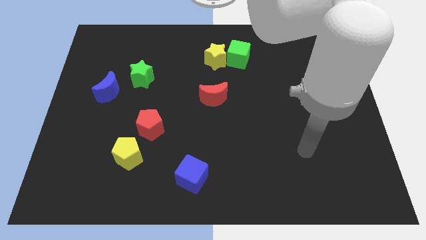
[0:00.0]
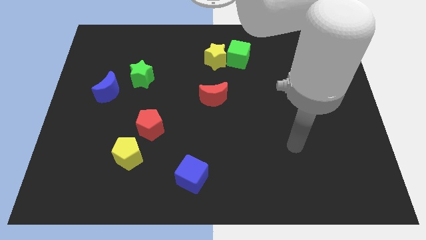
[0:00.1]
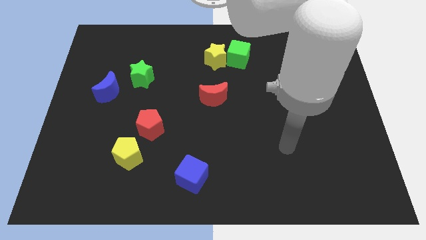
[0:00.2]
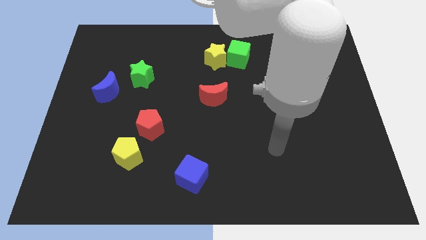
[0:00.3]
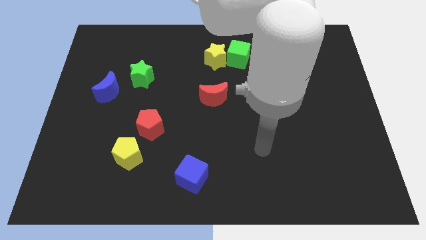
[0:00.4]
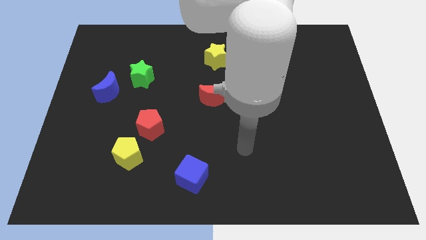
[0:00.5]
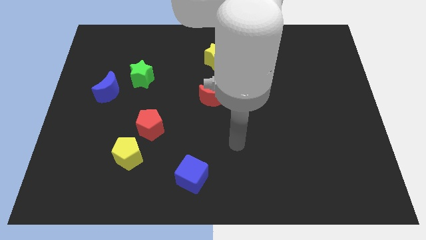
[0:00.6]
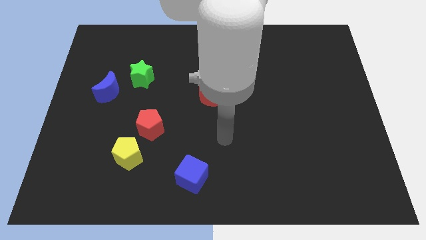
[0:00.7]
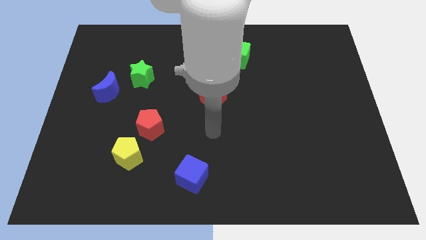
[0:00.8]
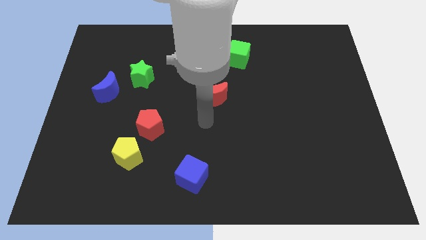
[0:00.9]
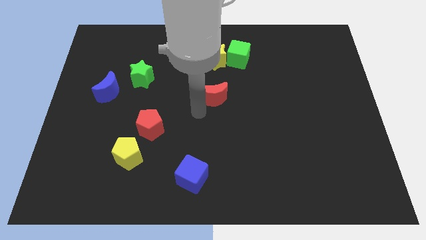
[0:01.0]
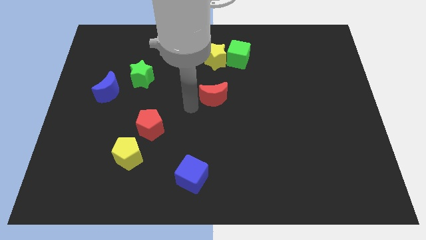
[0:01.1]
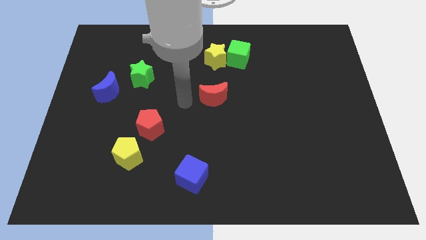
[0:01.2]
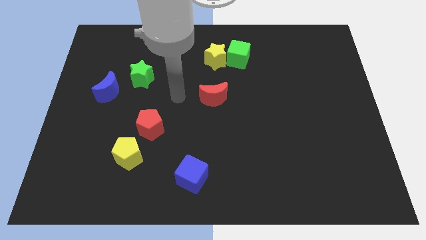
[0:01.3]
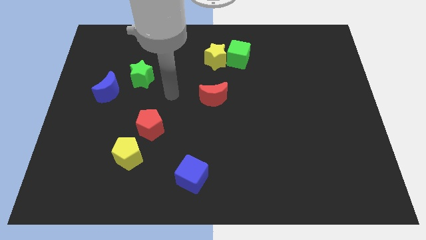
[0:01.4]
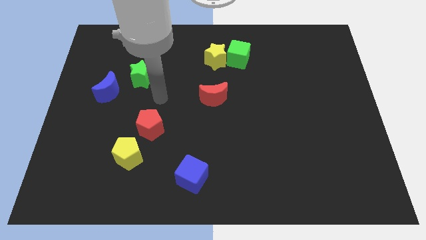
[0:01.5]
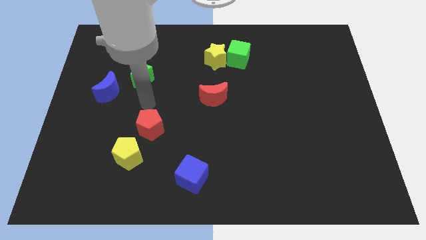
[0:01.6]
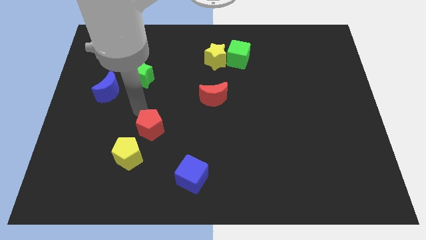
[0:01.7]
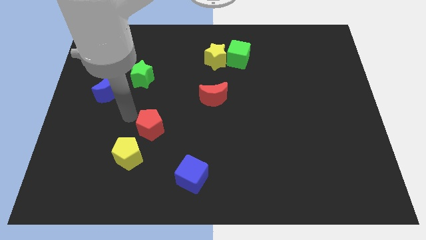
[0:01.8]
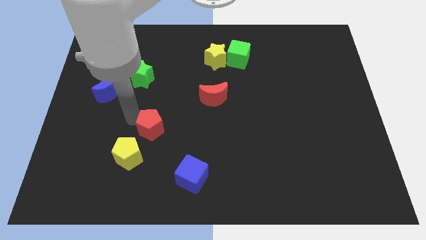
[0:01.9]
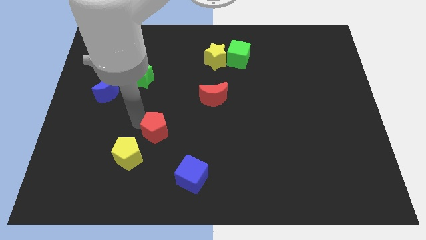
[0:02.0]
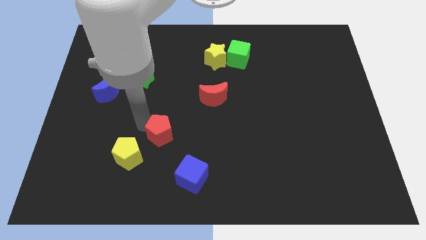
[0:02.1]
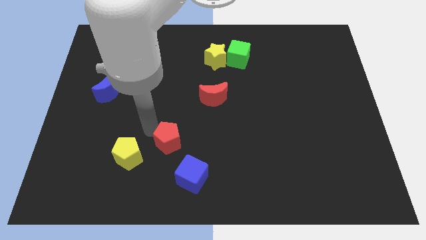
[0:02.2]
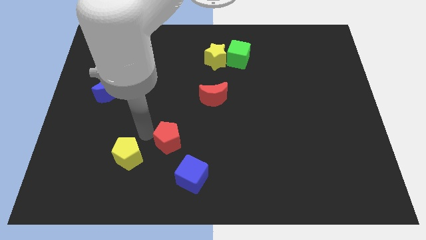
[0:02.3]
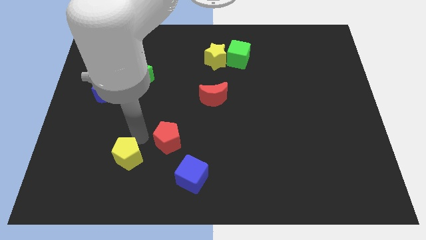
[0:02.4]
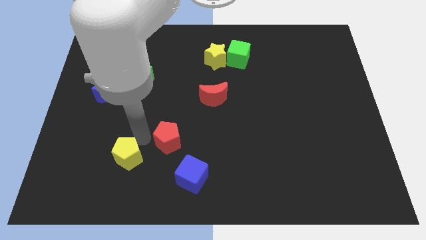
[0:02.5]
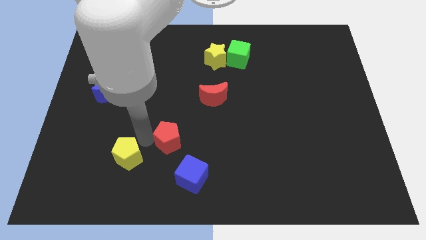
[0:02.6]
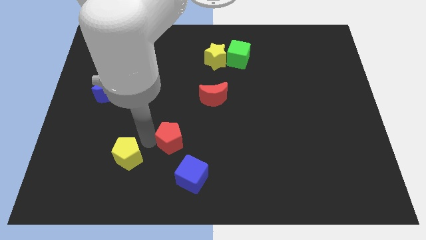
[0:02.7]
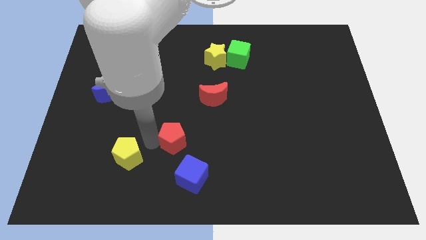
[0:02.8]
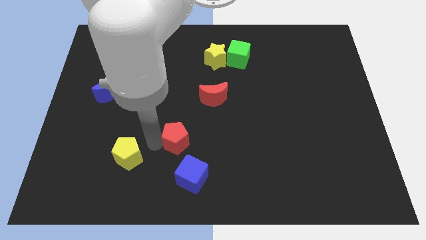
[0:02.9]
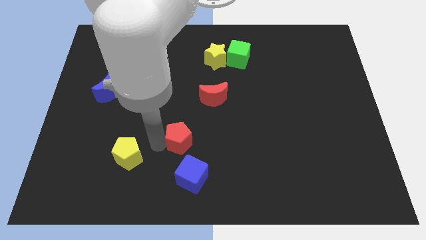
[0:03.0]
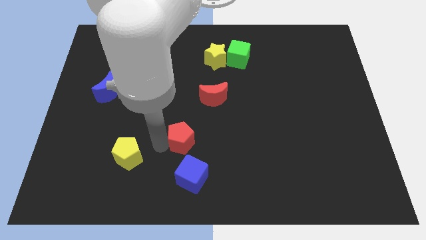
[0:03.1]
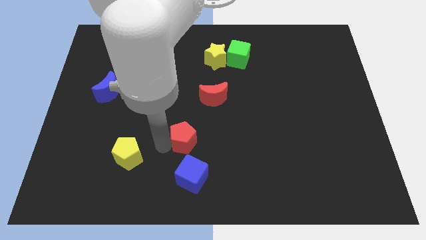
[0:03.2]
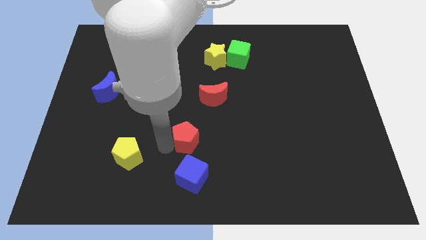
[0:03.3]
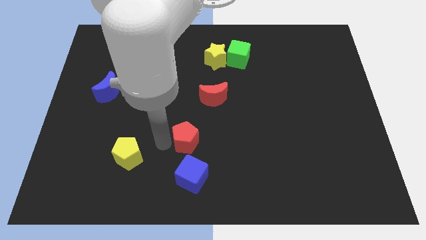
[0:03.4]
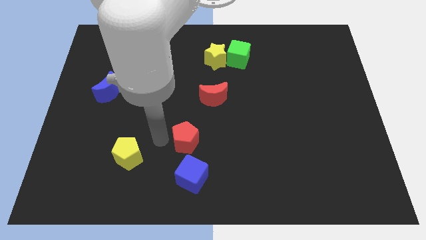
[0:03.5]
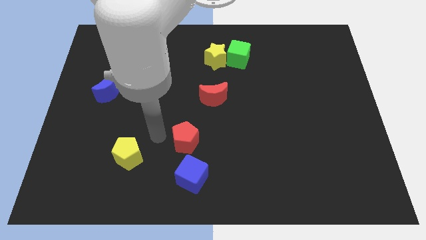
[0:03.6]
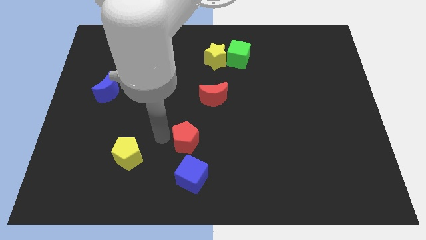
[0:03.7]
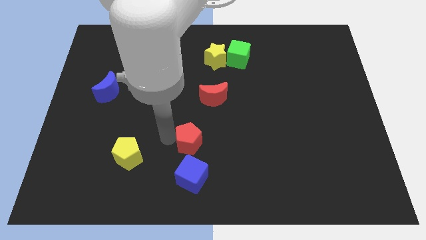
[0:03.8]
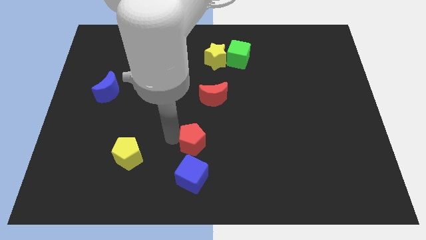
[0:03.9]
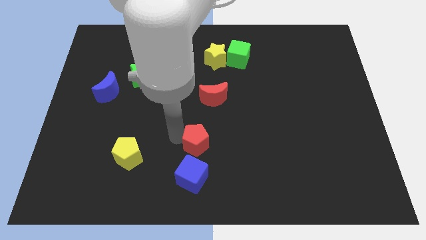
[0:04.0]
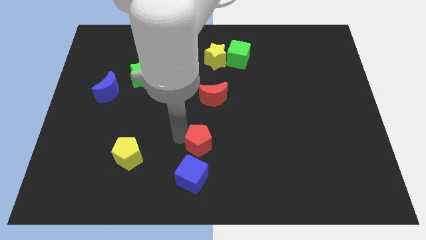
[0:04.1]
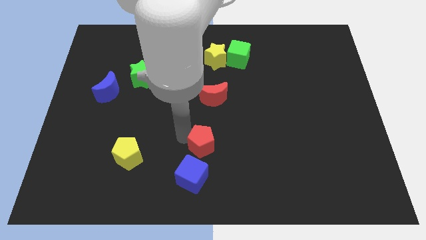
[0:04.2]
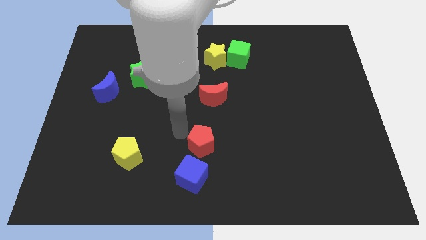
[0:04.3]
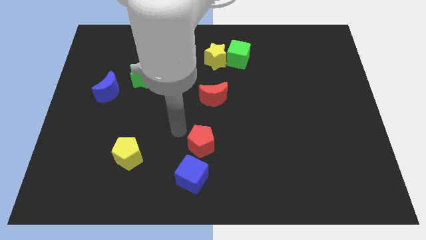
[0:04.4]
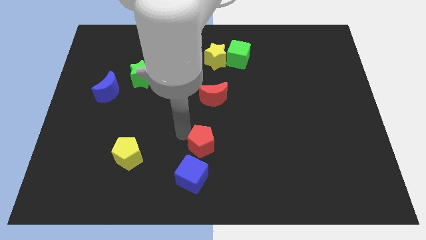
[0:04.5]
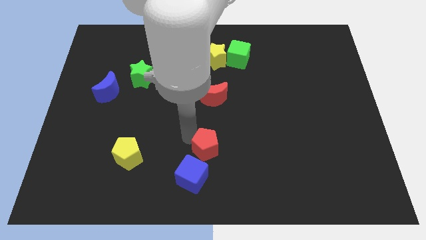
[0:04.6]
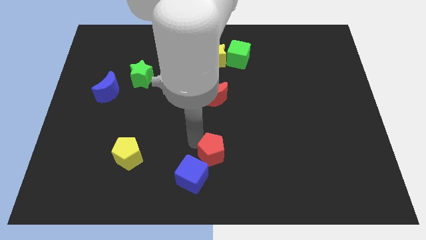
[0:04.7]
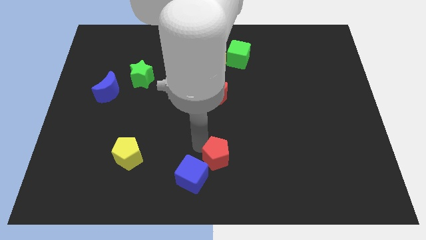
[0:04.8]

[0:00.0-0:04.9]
slide the red pentagon to the right of the blue cube

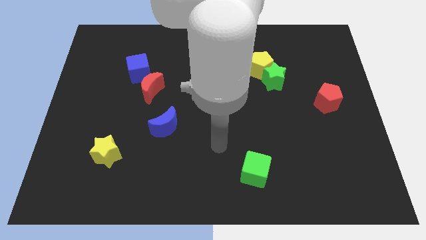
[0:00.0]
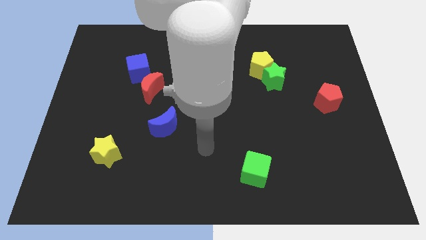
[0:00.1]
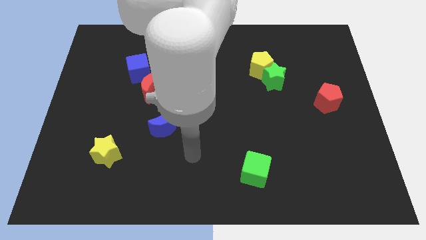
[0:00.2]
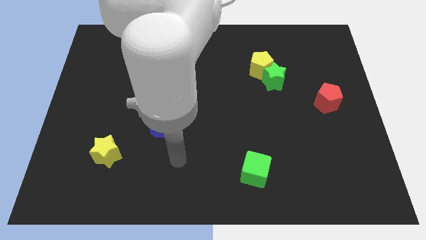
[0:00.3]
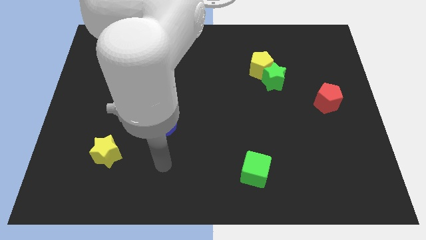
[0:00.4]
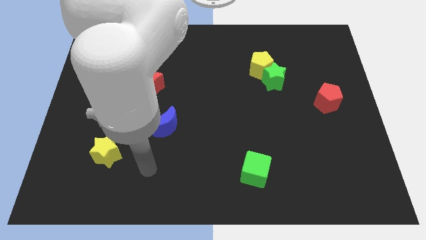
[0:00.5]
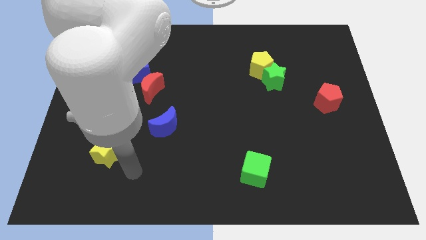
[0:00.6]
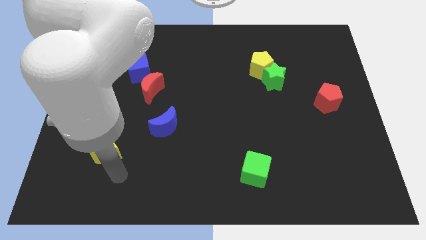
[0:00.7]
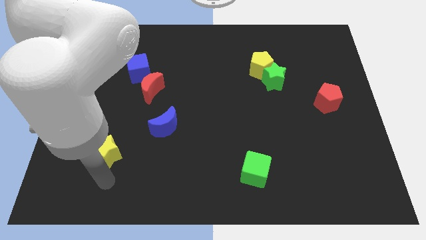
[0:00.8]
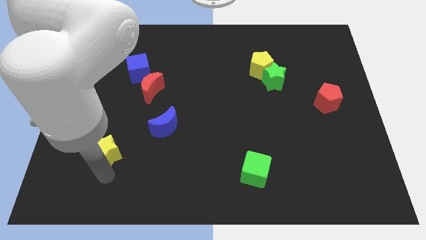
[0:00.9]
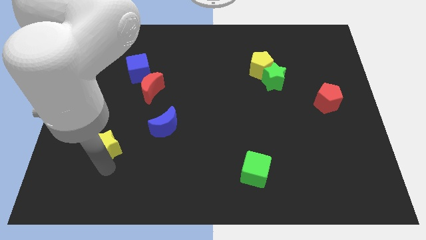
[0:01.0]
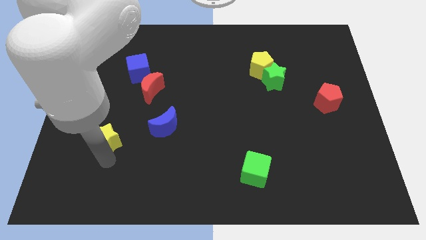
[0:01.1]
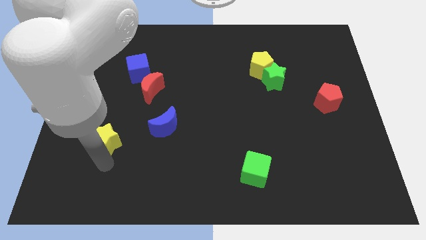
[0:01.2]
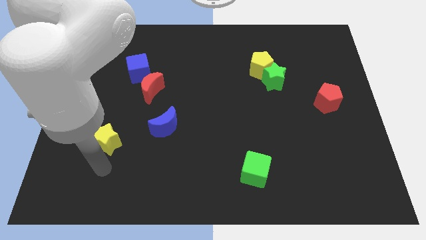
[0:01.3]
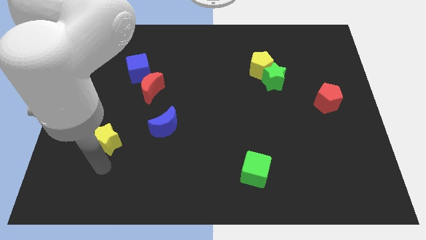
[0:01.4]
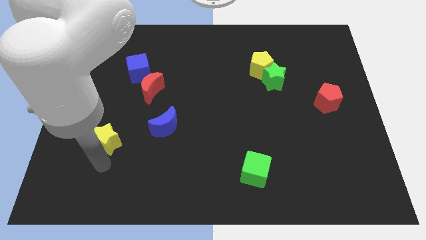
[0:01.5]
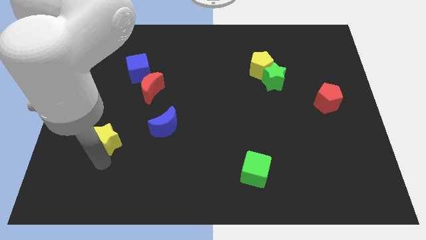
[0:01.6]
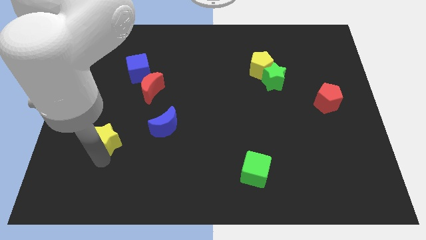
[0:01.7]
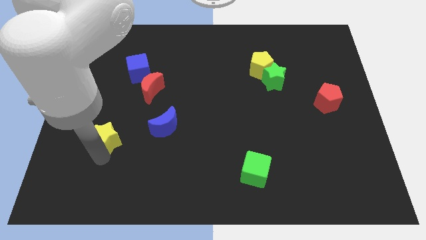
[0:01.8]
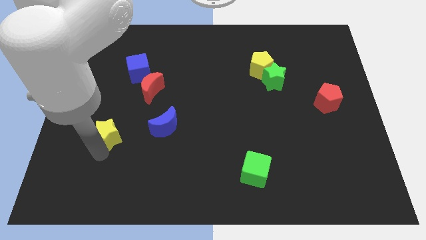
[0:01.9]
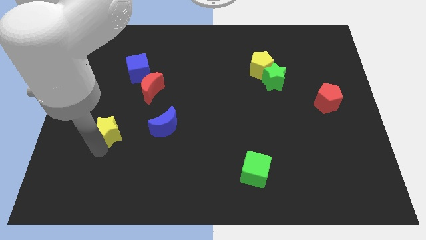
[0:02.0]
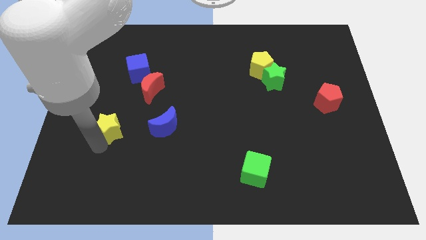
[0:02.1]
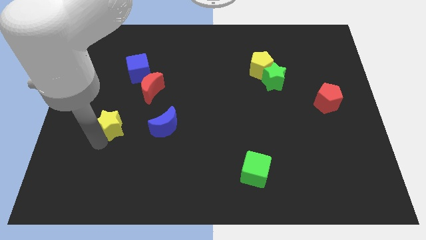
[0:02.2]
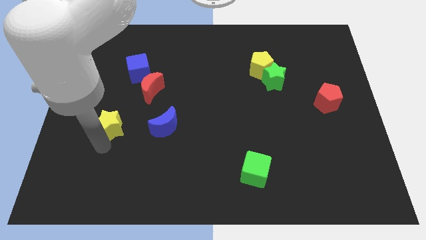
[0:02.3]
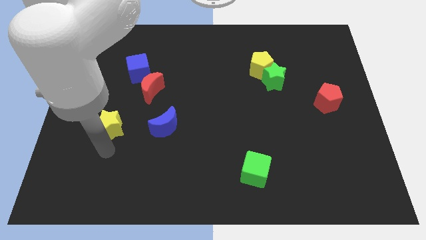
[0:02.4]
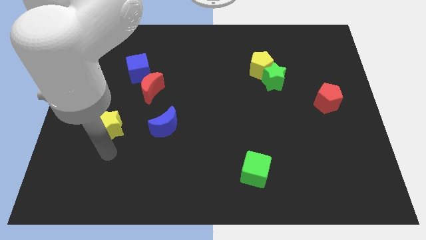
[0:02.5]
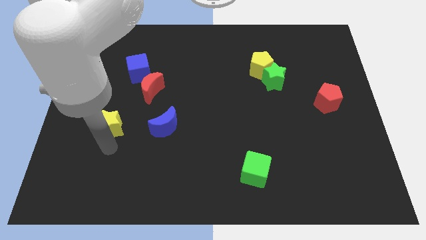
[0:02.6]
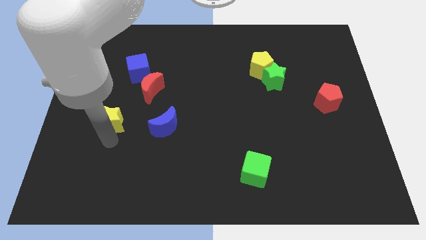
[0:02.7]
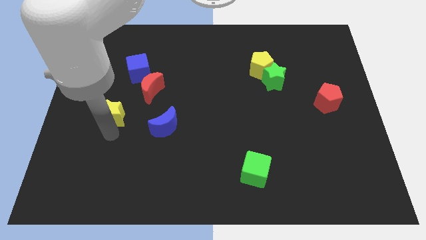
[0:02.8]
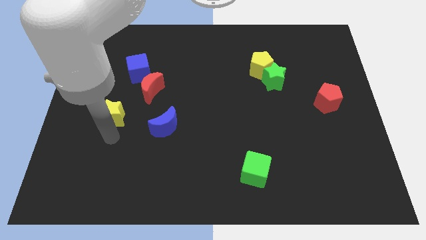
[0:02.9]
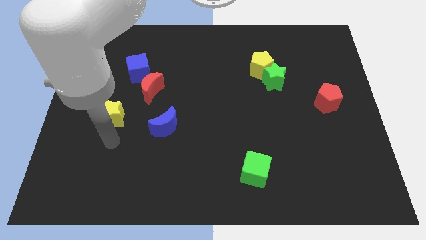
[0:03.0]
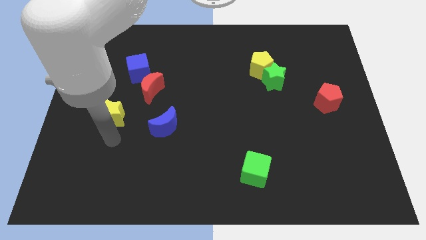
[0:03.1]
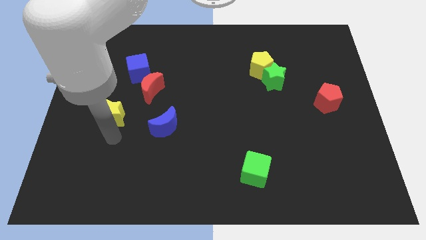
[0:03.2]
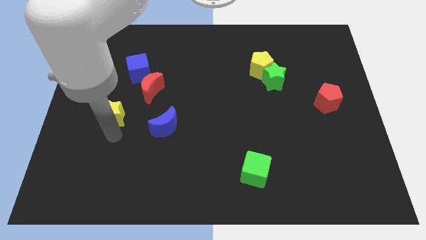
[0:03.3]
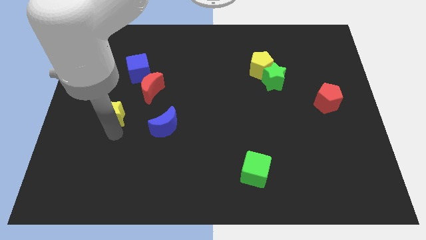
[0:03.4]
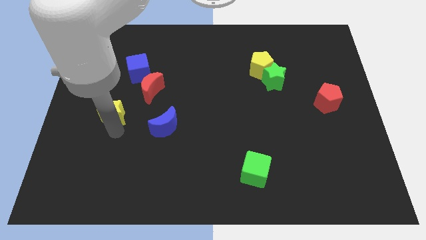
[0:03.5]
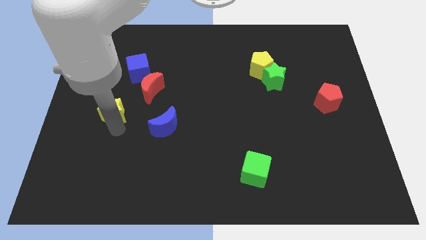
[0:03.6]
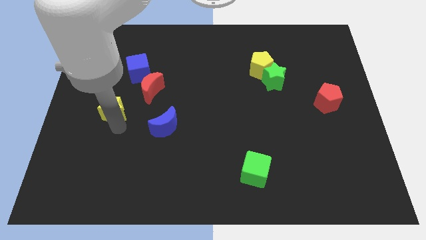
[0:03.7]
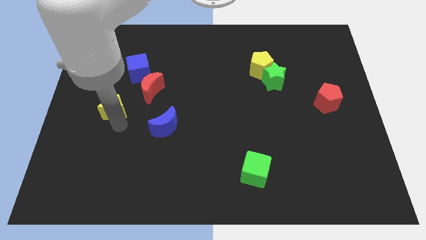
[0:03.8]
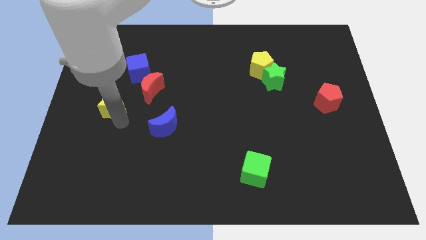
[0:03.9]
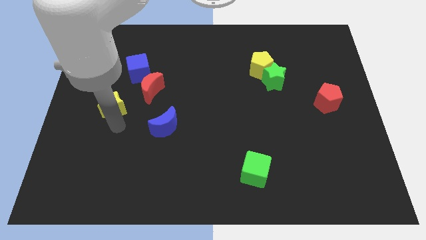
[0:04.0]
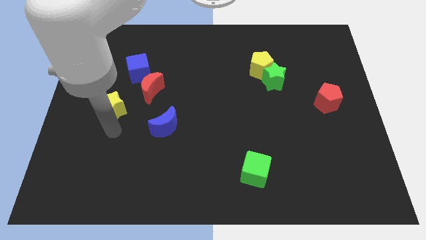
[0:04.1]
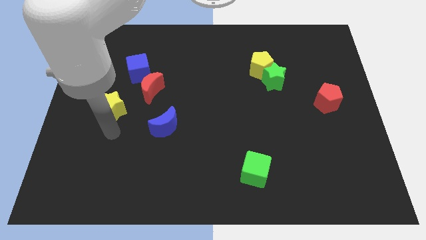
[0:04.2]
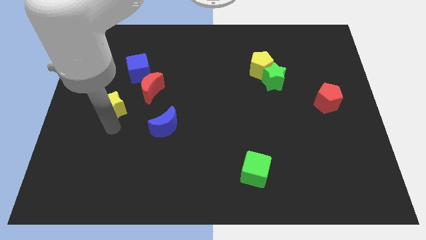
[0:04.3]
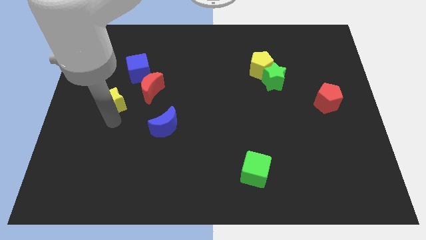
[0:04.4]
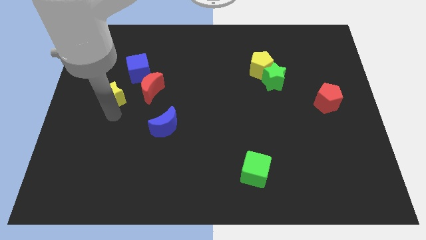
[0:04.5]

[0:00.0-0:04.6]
move the yellow star diagonally down and to the left of the blue cube
